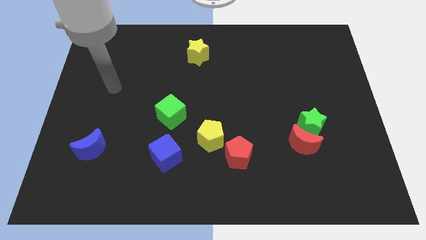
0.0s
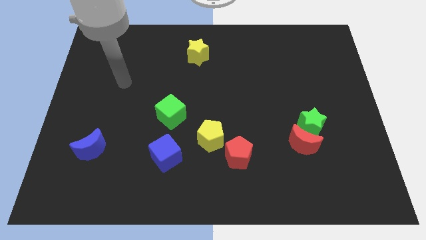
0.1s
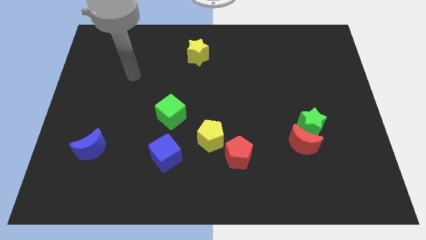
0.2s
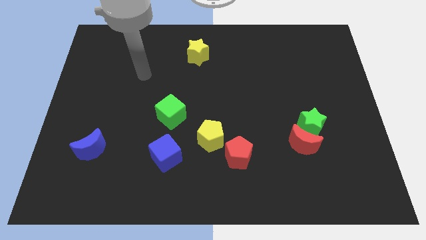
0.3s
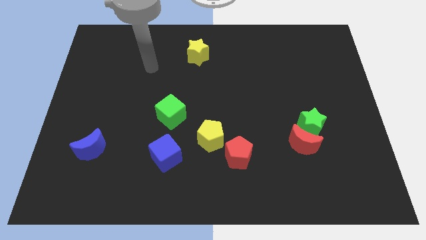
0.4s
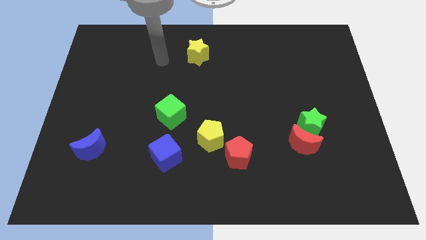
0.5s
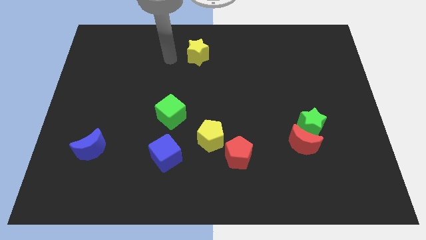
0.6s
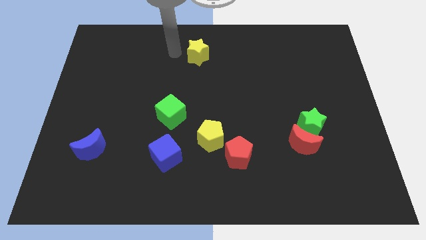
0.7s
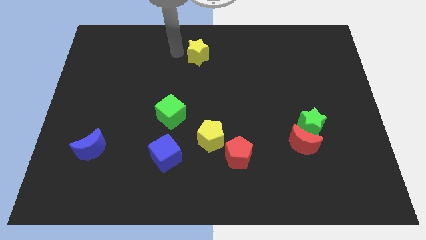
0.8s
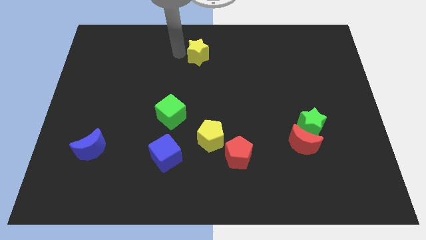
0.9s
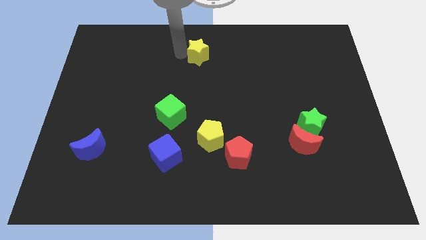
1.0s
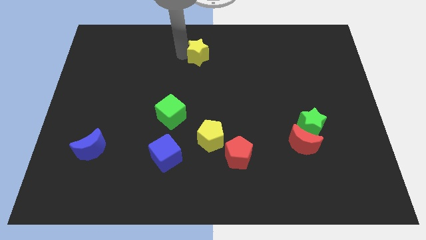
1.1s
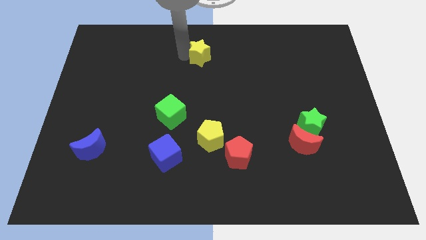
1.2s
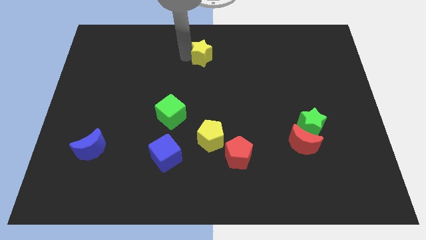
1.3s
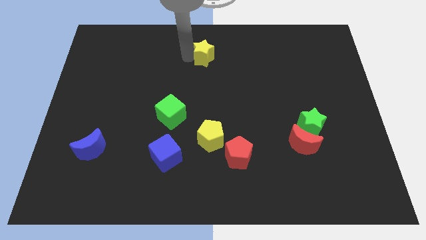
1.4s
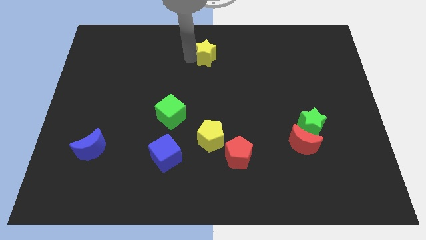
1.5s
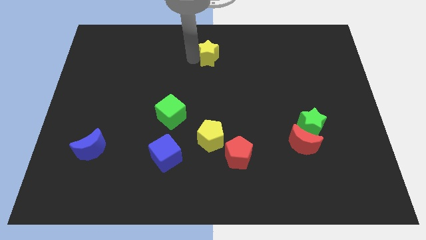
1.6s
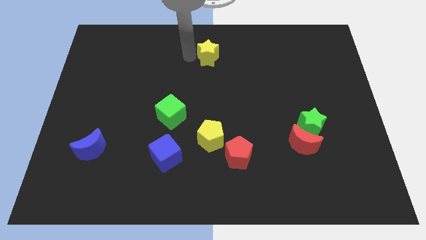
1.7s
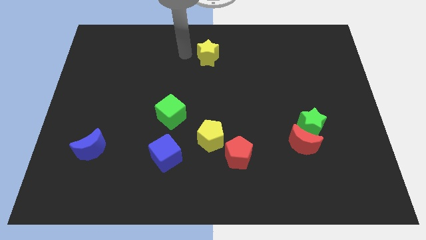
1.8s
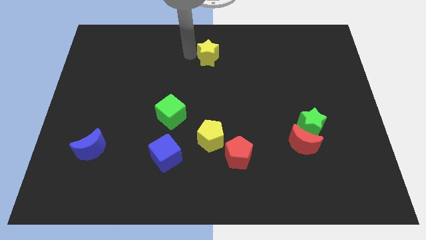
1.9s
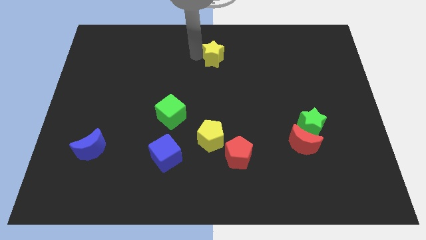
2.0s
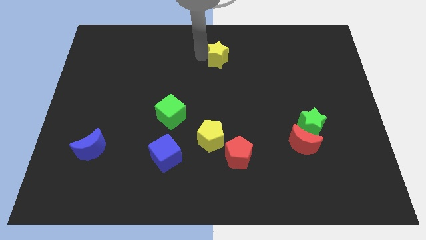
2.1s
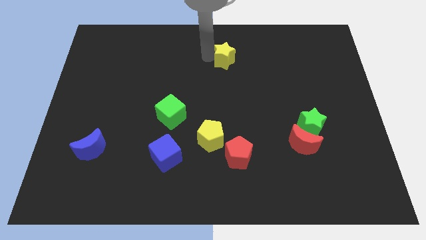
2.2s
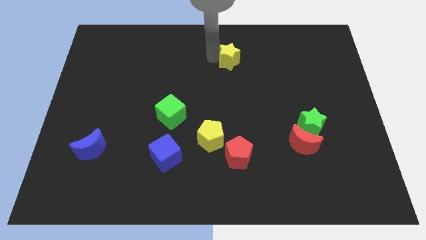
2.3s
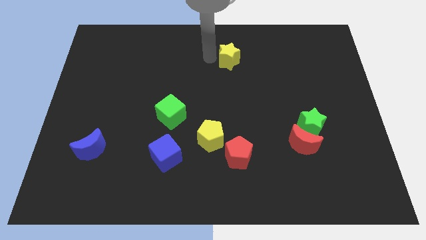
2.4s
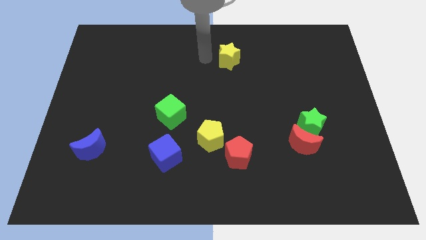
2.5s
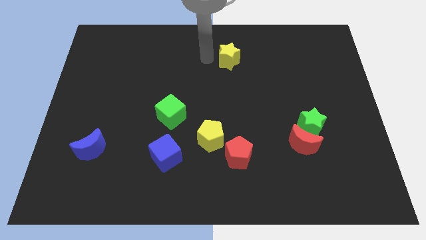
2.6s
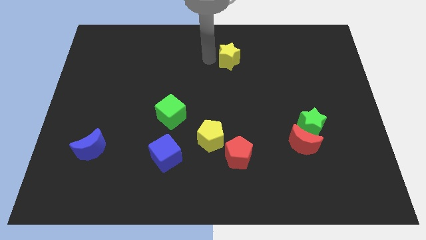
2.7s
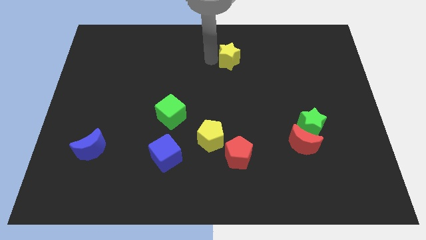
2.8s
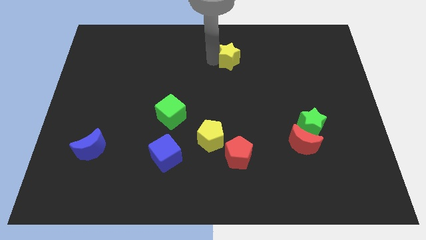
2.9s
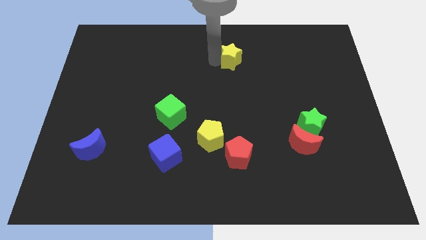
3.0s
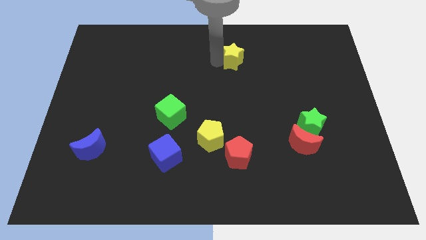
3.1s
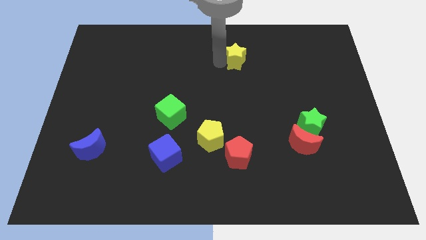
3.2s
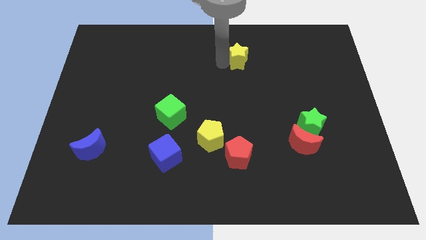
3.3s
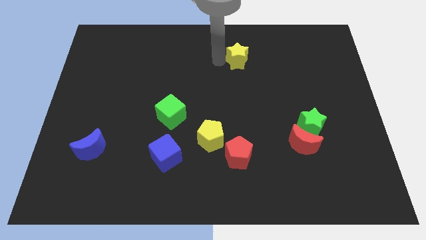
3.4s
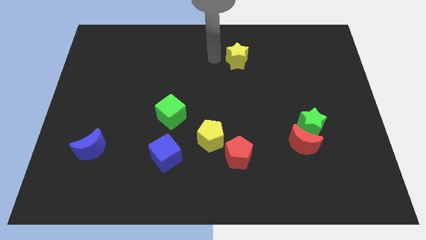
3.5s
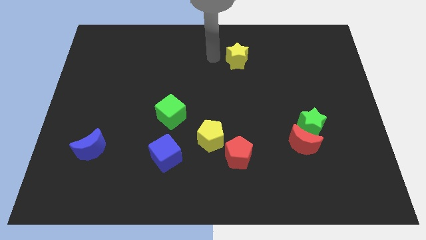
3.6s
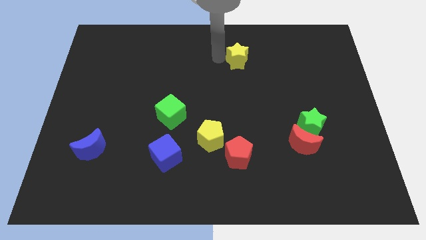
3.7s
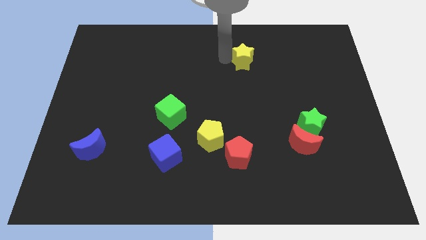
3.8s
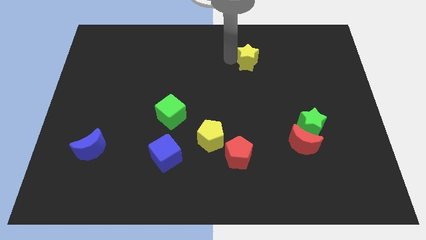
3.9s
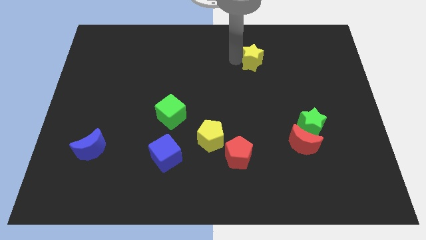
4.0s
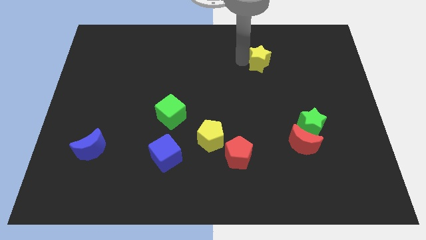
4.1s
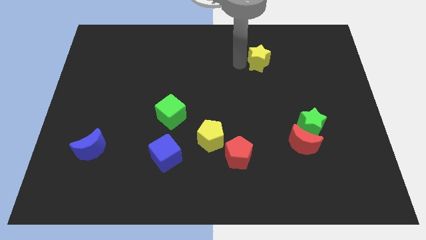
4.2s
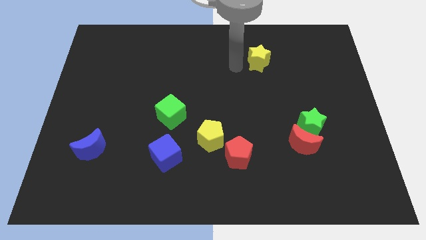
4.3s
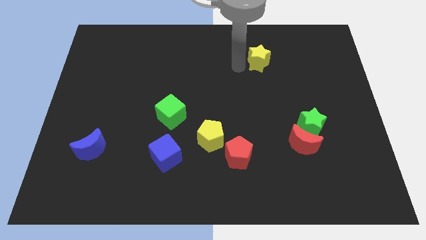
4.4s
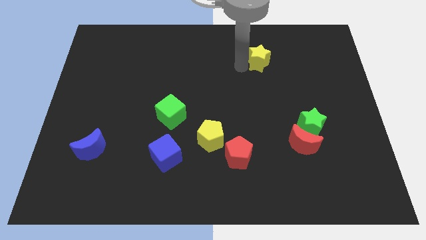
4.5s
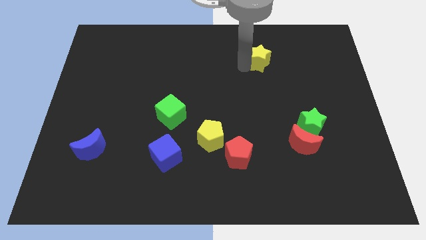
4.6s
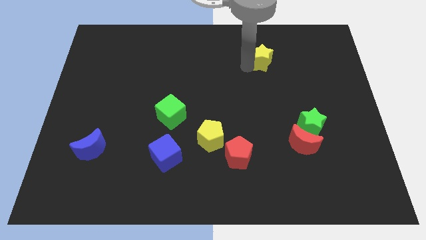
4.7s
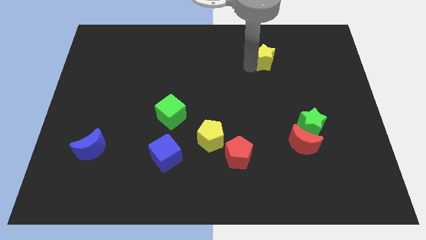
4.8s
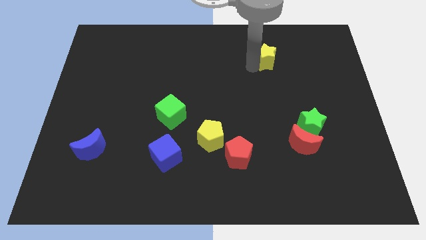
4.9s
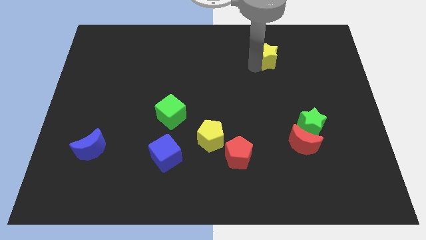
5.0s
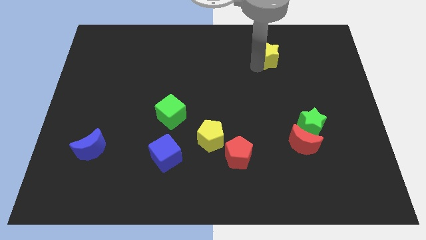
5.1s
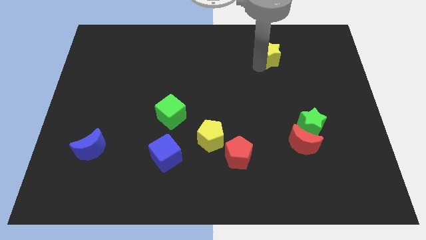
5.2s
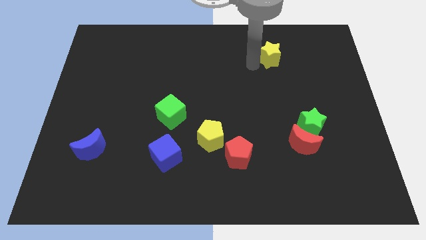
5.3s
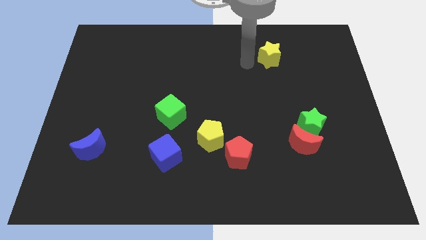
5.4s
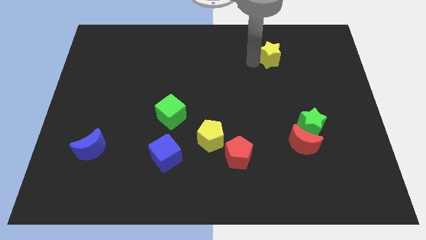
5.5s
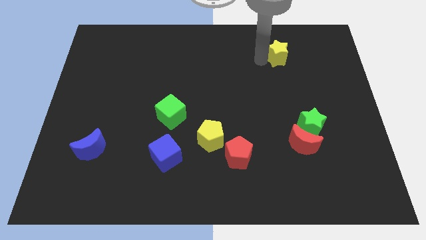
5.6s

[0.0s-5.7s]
slide the yellow star right

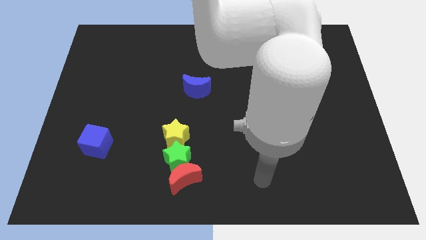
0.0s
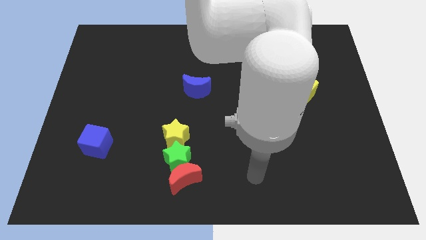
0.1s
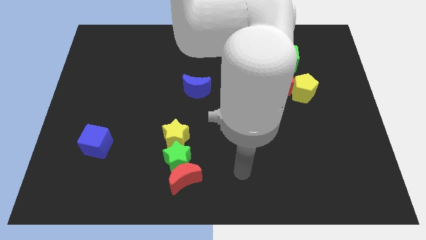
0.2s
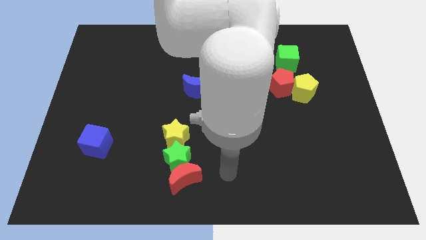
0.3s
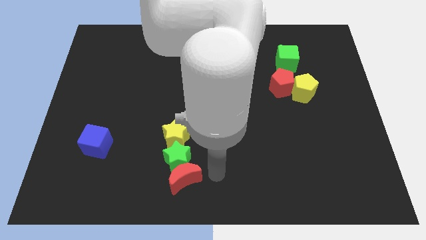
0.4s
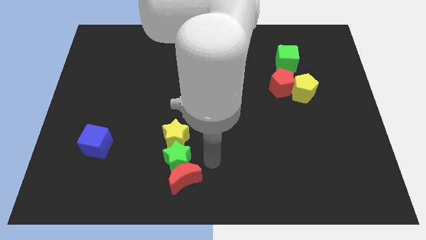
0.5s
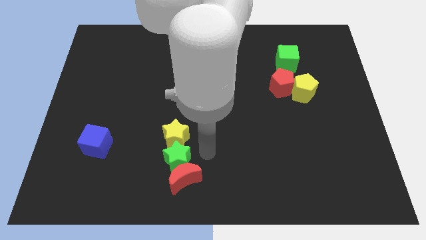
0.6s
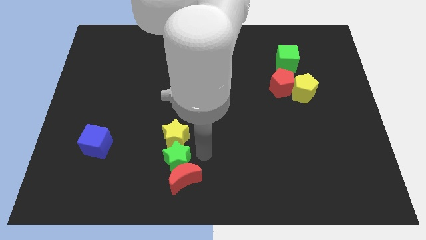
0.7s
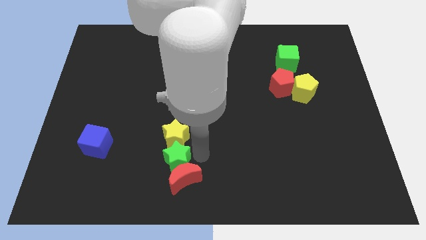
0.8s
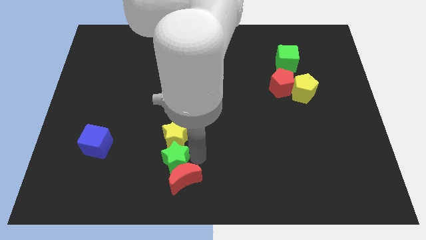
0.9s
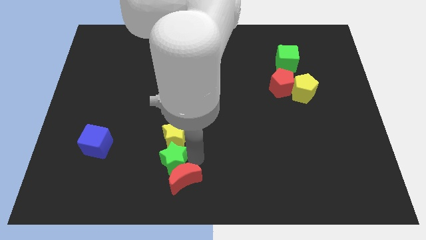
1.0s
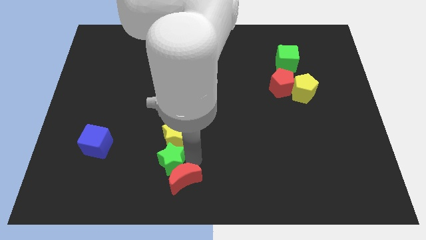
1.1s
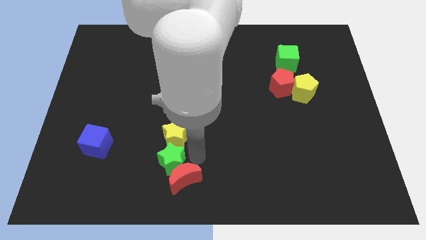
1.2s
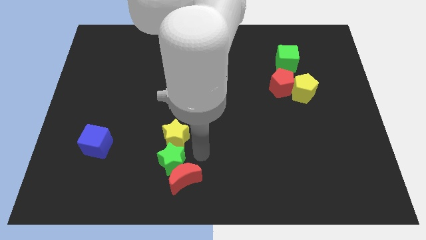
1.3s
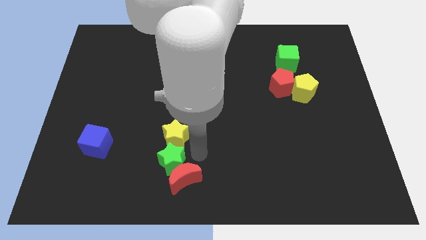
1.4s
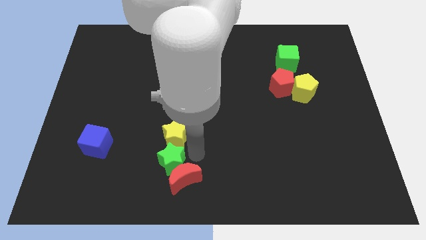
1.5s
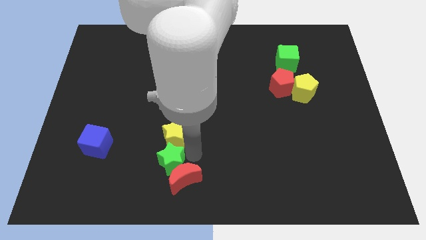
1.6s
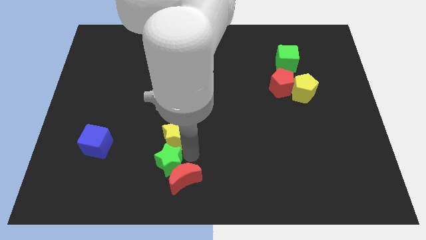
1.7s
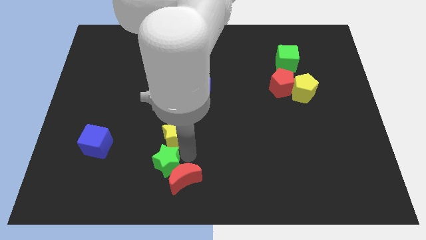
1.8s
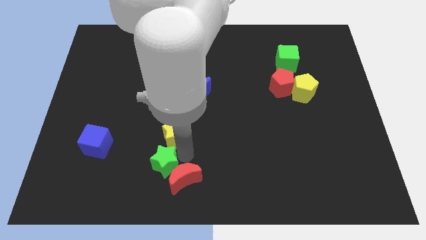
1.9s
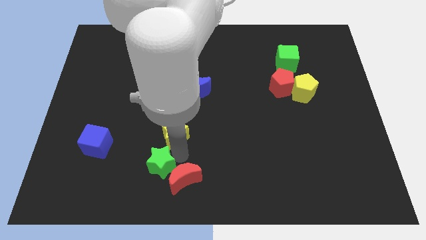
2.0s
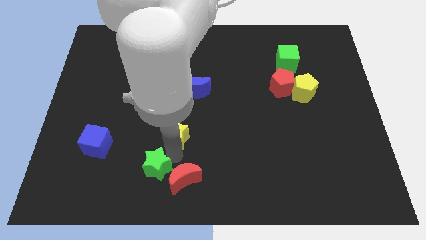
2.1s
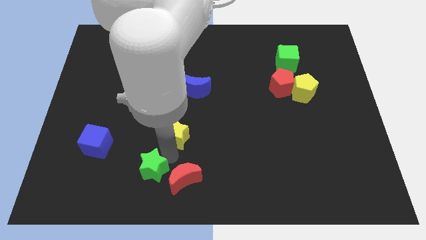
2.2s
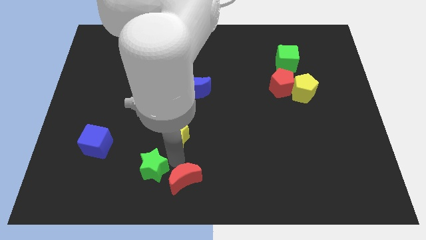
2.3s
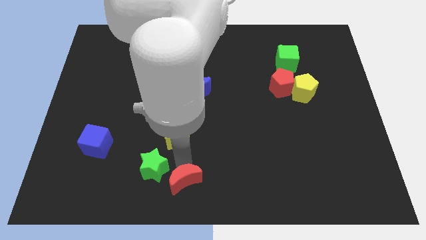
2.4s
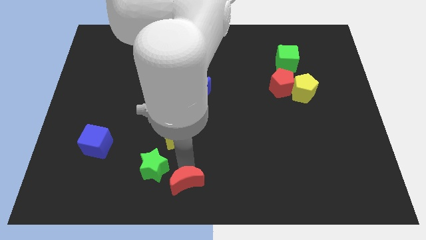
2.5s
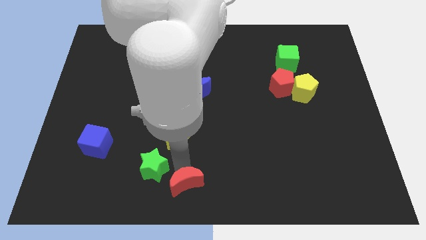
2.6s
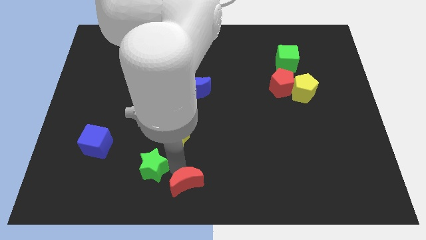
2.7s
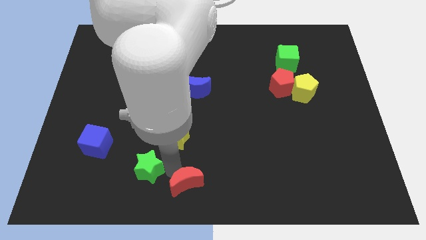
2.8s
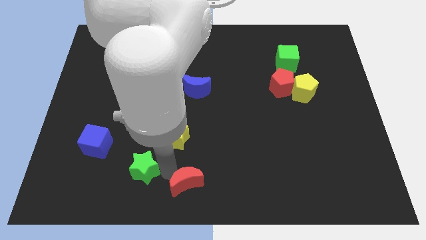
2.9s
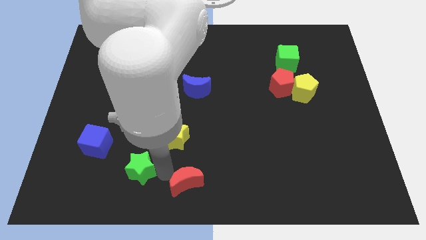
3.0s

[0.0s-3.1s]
slide the green star a bit left
